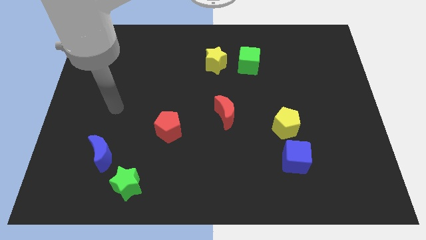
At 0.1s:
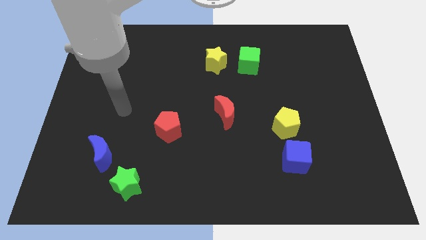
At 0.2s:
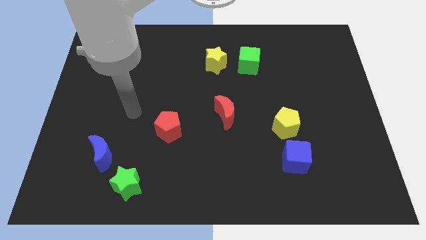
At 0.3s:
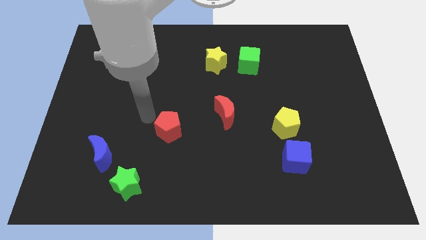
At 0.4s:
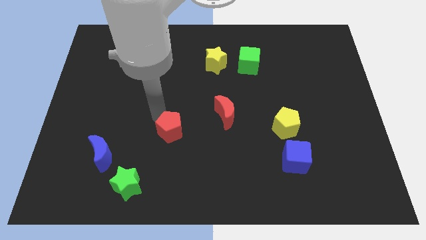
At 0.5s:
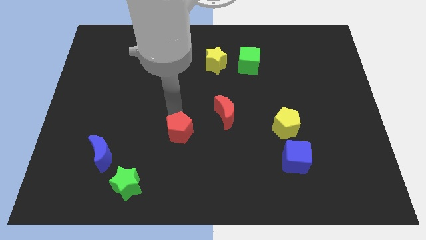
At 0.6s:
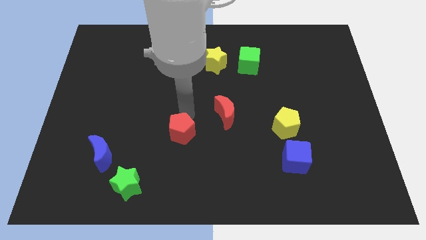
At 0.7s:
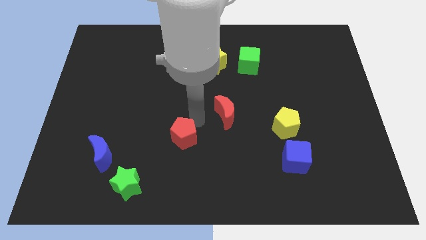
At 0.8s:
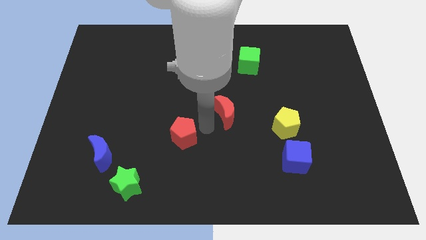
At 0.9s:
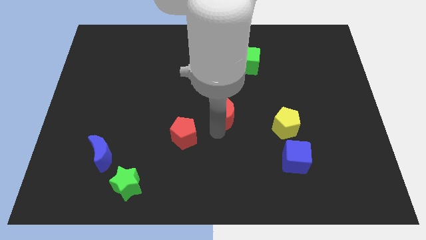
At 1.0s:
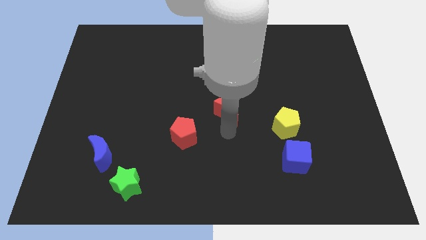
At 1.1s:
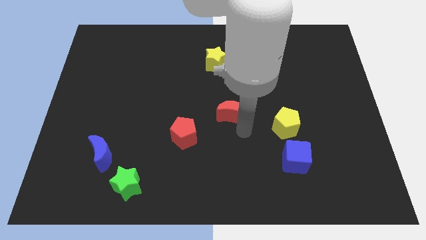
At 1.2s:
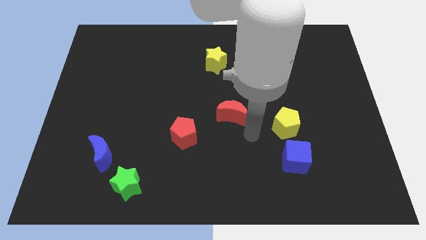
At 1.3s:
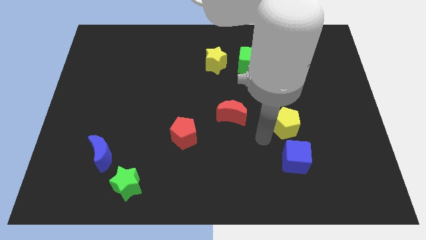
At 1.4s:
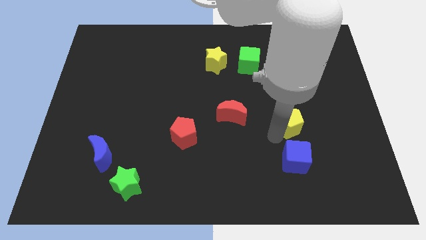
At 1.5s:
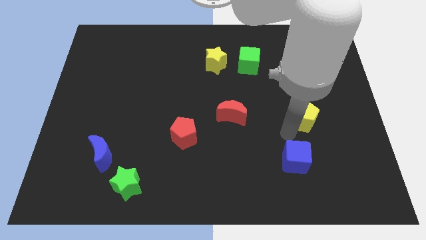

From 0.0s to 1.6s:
separate the blue cube from the yellow pentagon

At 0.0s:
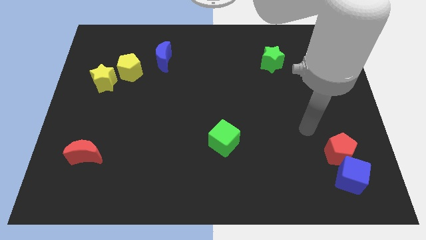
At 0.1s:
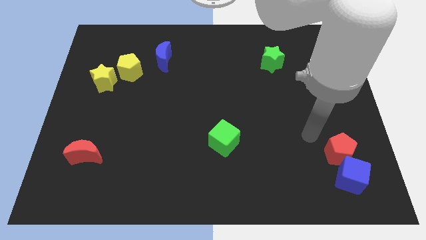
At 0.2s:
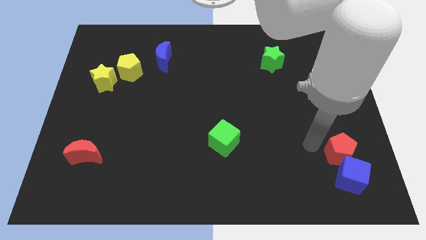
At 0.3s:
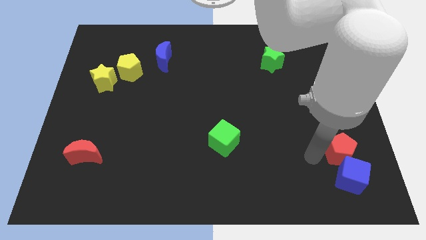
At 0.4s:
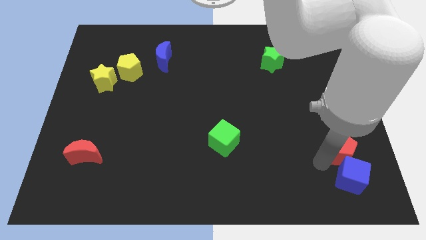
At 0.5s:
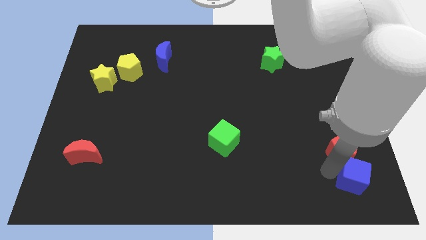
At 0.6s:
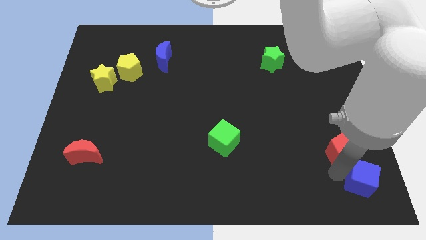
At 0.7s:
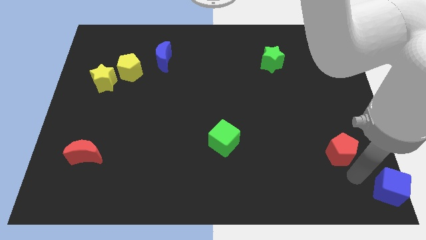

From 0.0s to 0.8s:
pull the red pentagon apart from the blue cube

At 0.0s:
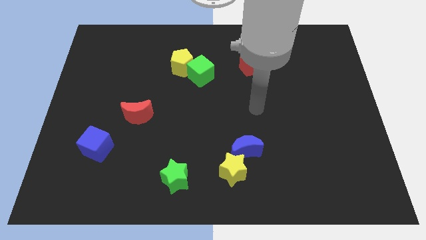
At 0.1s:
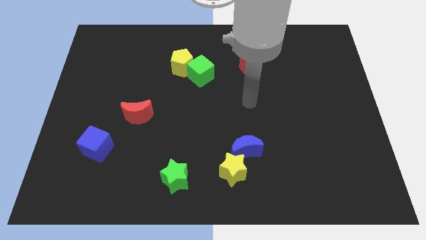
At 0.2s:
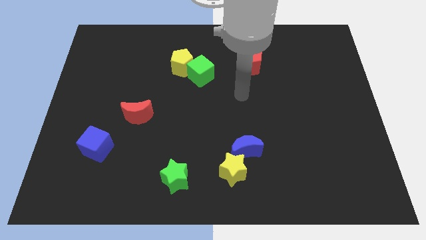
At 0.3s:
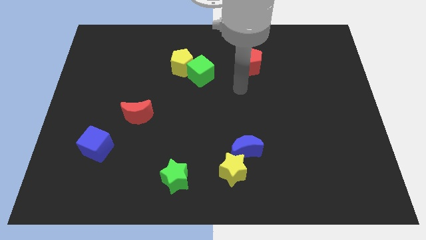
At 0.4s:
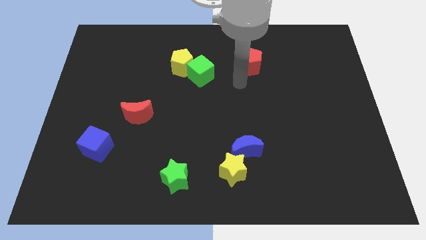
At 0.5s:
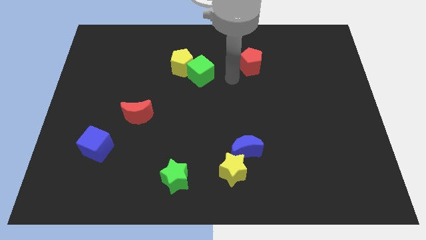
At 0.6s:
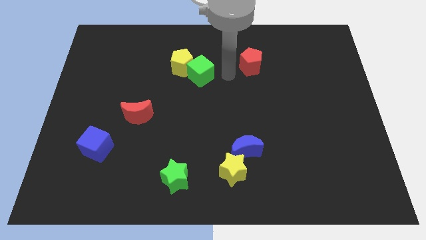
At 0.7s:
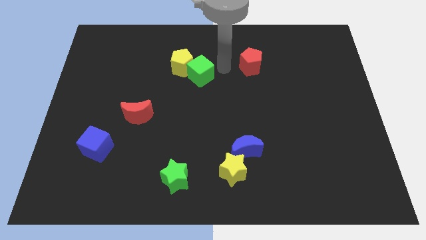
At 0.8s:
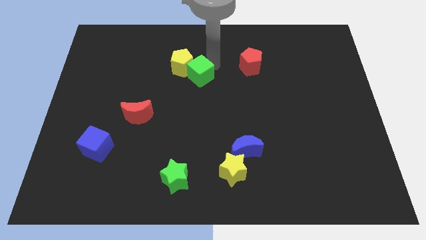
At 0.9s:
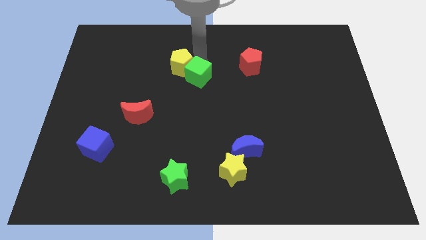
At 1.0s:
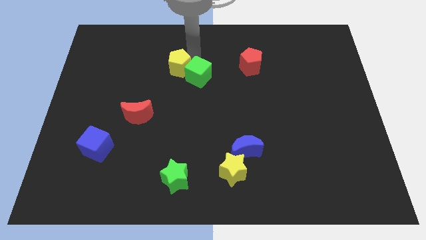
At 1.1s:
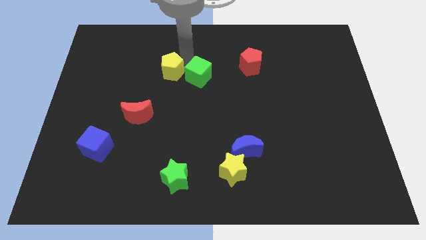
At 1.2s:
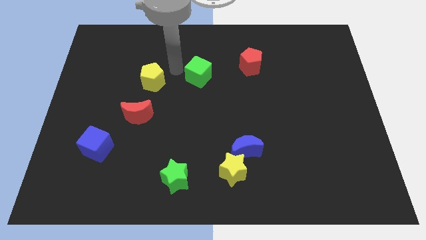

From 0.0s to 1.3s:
move the green cube away from the yellow pentagon

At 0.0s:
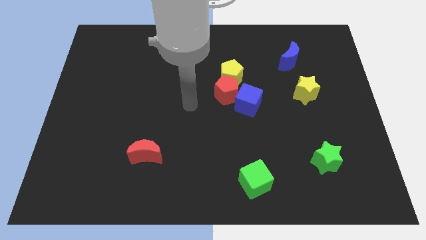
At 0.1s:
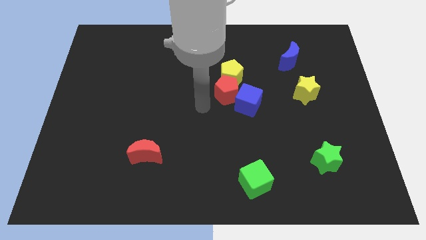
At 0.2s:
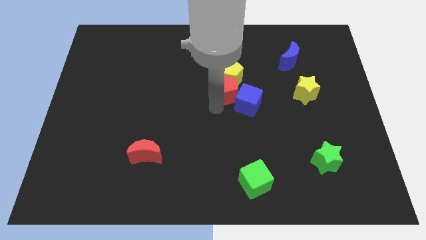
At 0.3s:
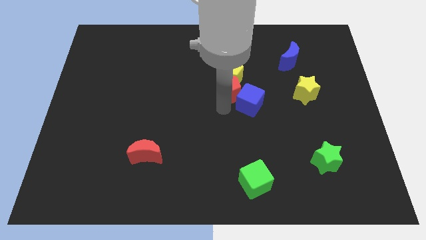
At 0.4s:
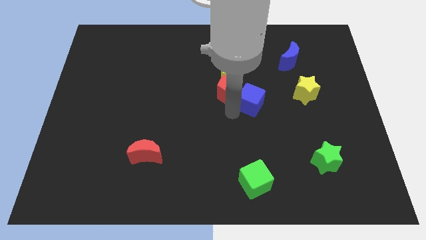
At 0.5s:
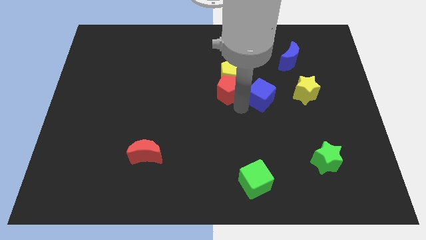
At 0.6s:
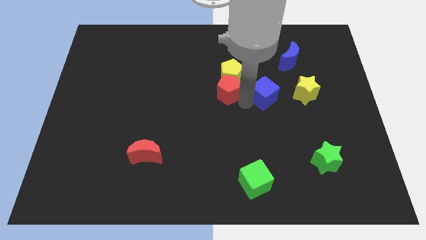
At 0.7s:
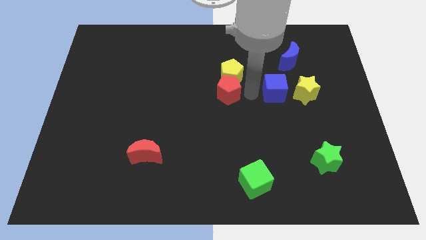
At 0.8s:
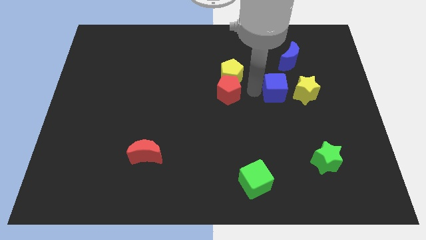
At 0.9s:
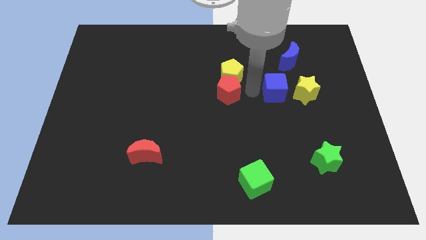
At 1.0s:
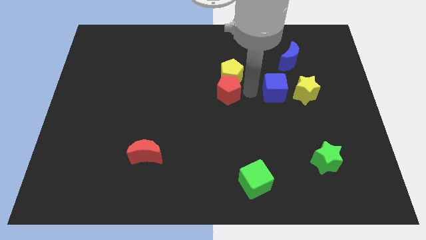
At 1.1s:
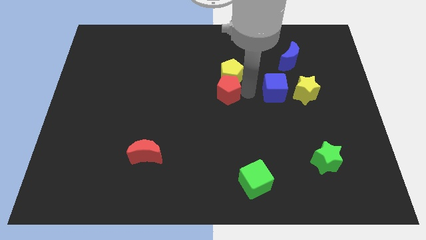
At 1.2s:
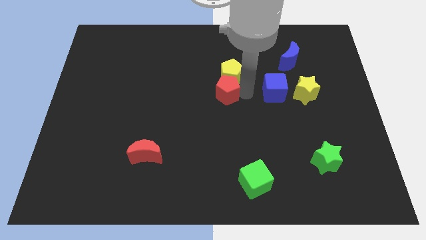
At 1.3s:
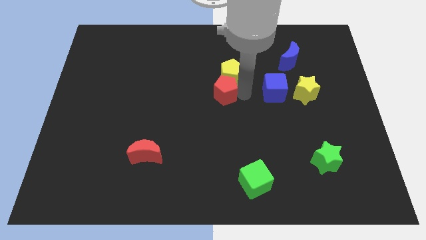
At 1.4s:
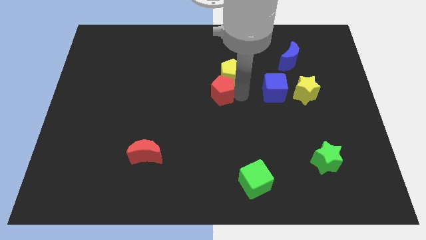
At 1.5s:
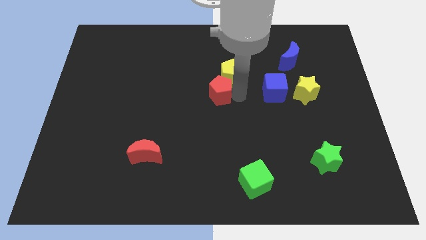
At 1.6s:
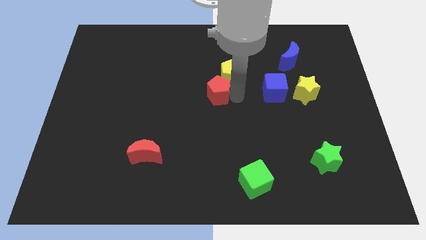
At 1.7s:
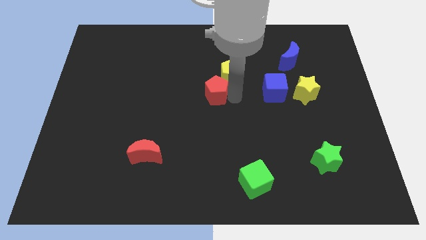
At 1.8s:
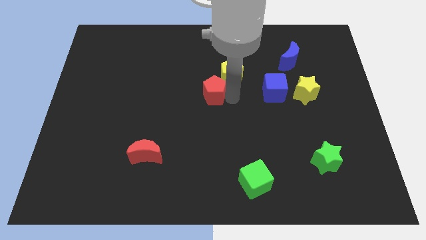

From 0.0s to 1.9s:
move the red pentagon away from the yellow pentagon and blue cube

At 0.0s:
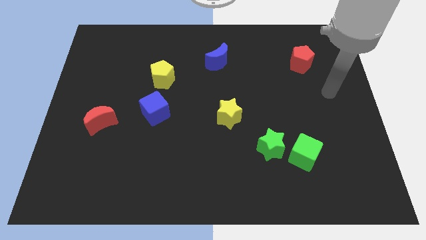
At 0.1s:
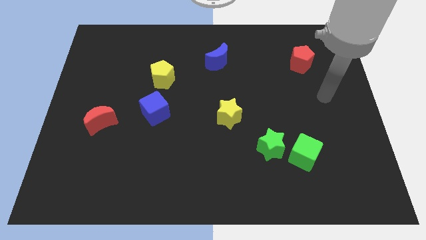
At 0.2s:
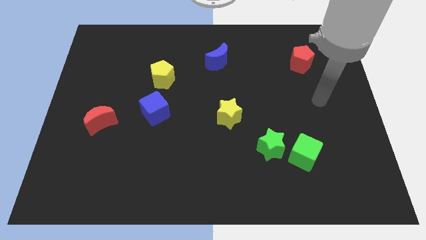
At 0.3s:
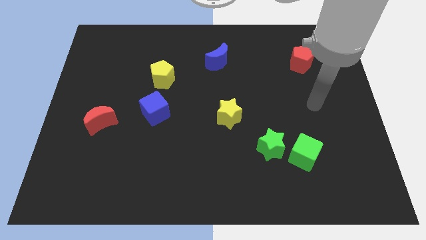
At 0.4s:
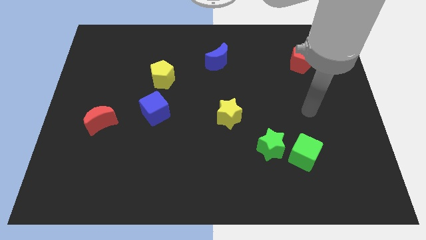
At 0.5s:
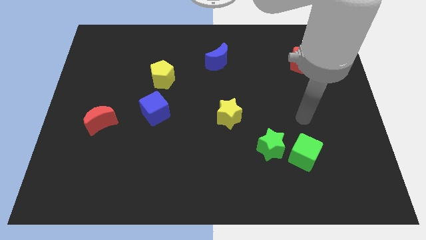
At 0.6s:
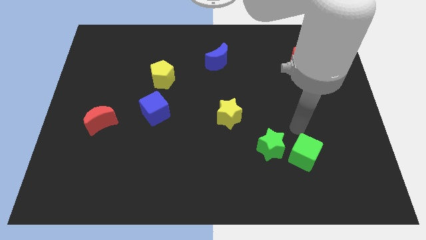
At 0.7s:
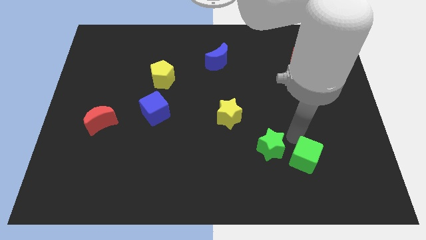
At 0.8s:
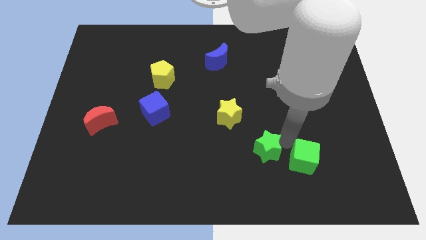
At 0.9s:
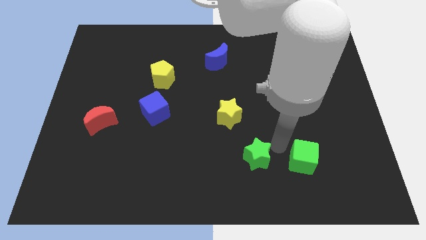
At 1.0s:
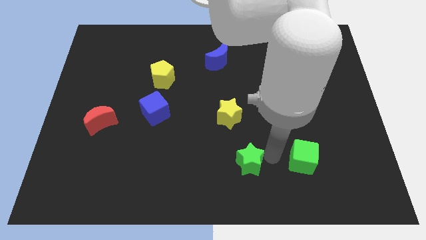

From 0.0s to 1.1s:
pull the green cube apart from the green star

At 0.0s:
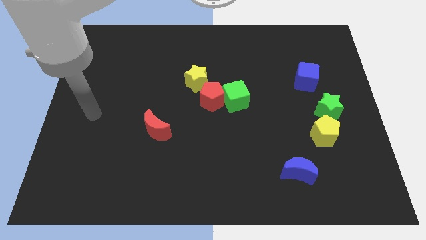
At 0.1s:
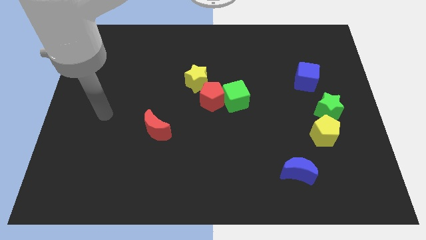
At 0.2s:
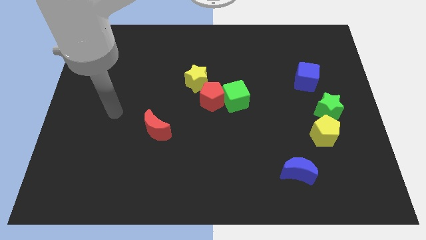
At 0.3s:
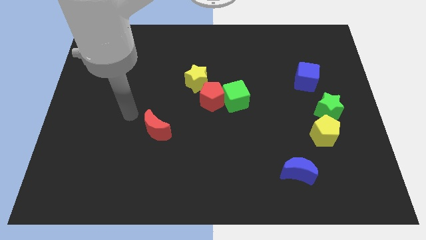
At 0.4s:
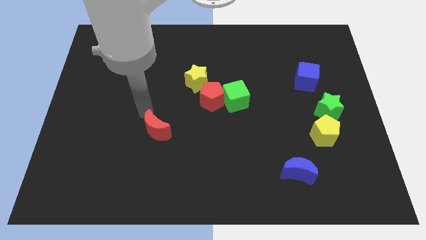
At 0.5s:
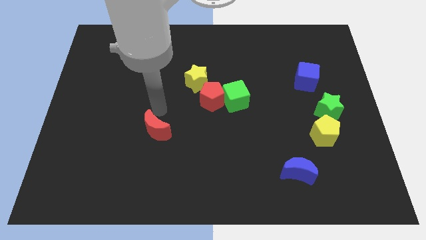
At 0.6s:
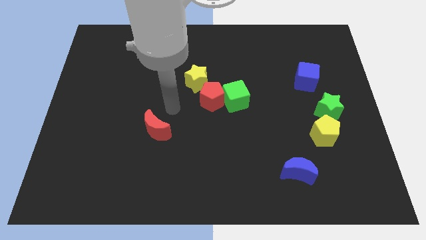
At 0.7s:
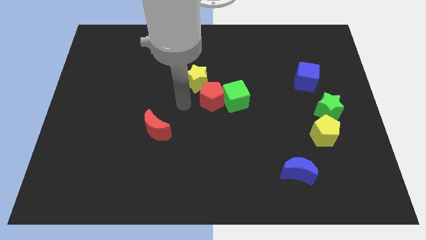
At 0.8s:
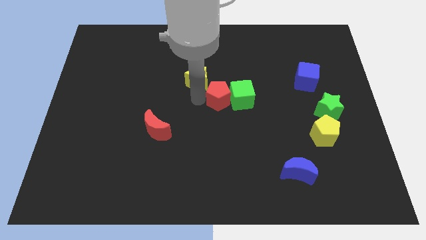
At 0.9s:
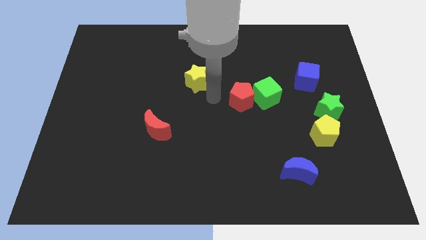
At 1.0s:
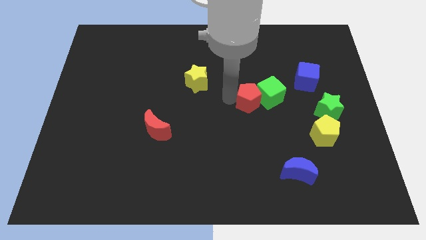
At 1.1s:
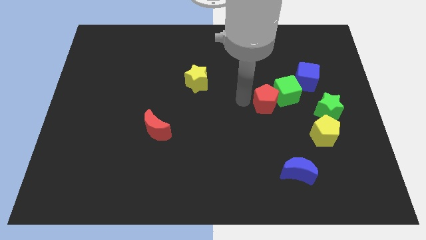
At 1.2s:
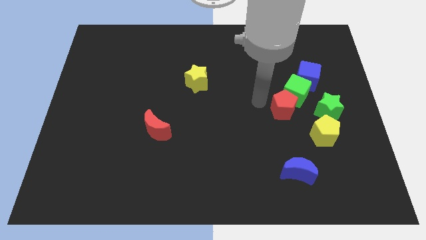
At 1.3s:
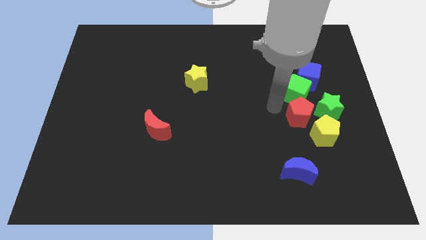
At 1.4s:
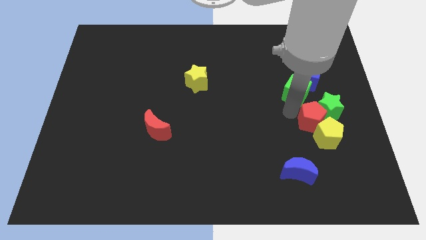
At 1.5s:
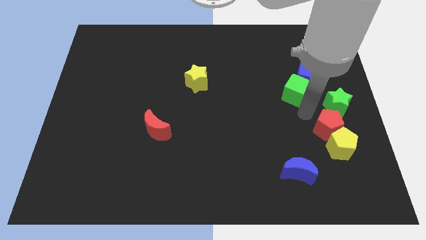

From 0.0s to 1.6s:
pull the green cube apart from the red pentagon

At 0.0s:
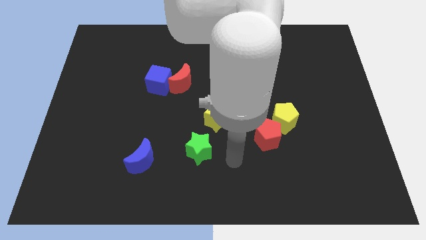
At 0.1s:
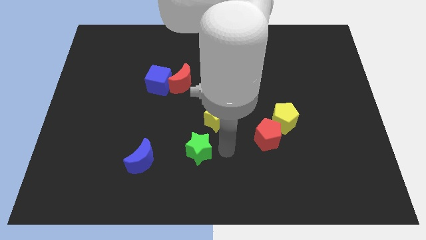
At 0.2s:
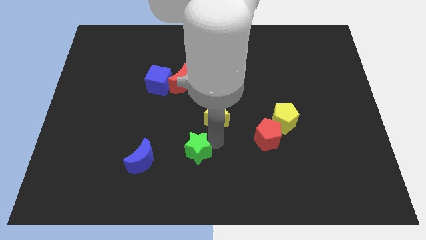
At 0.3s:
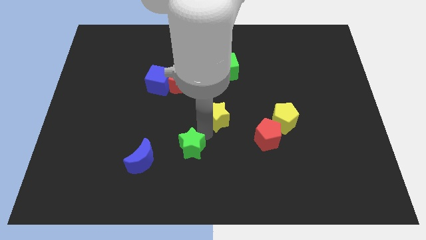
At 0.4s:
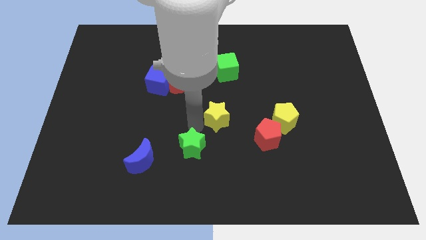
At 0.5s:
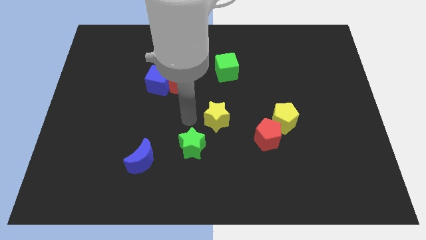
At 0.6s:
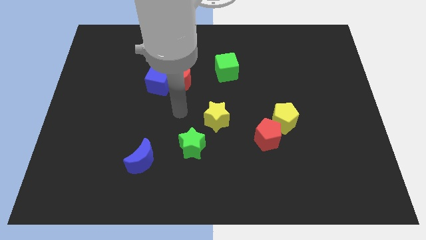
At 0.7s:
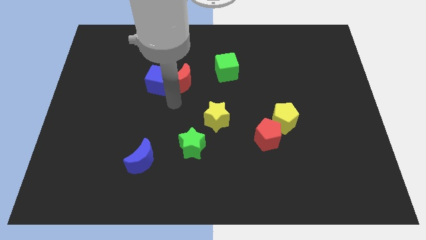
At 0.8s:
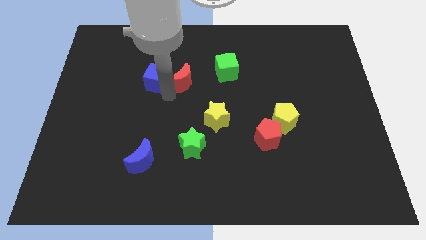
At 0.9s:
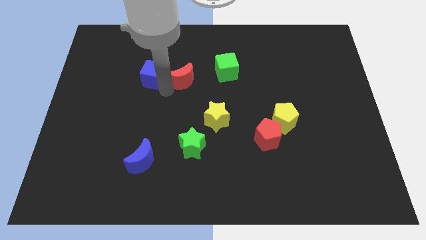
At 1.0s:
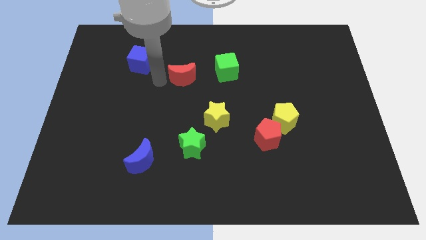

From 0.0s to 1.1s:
pull the red moon apart from the blue cube
